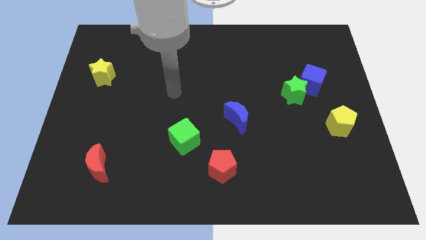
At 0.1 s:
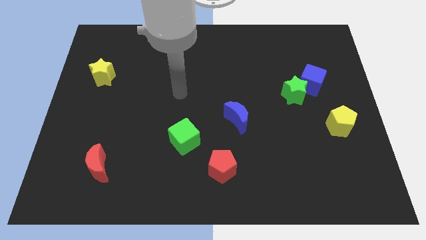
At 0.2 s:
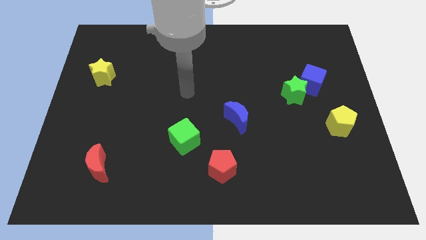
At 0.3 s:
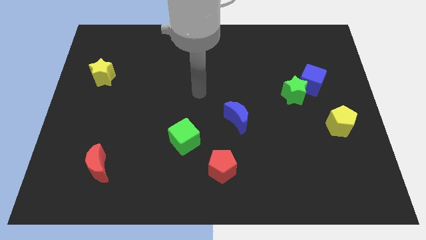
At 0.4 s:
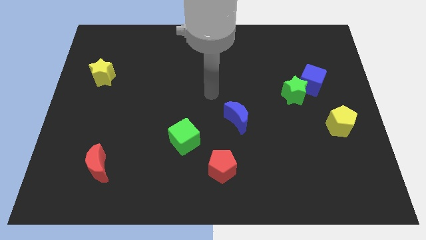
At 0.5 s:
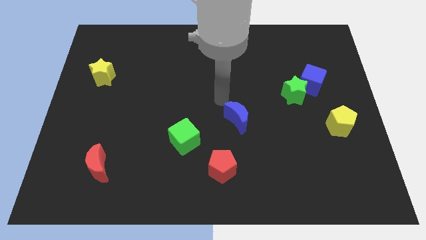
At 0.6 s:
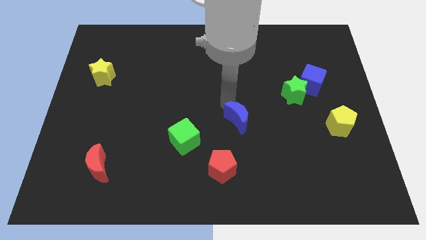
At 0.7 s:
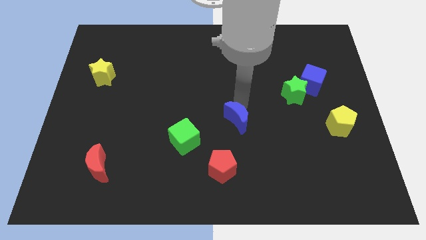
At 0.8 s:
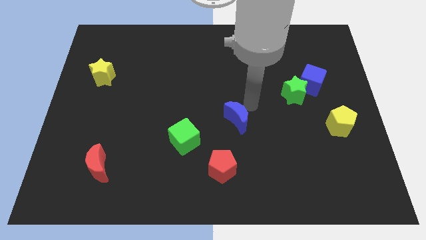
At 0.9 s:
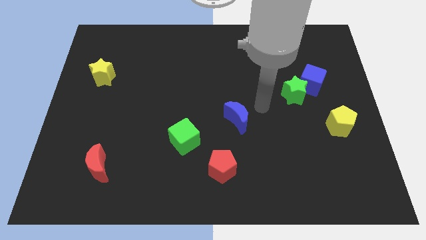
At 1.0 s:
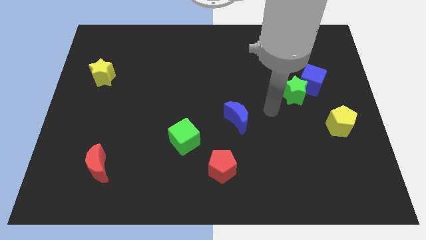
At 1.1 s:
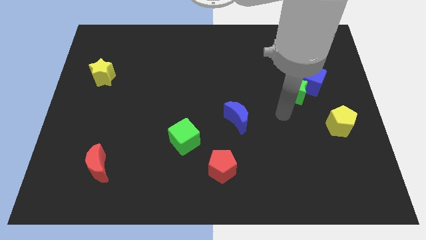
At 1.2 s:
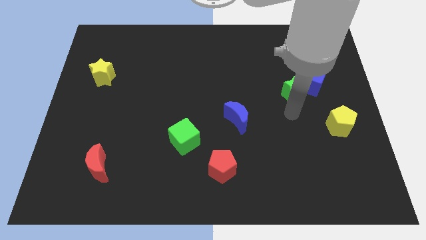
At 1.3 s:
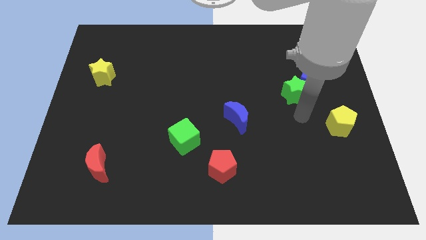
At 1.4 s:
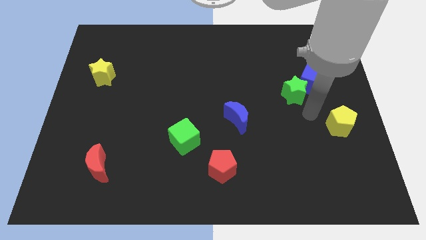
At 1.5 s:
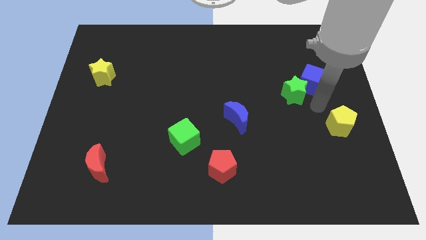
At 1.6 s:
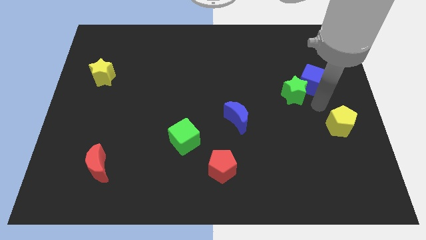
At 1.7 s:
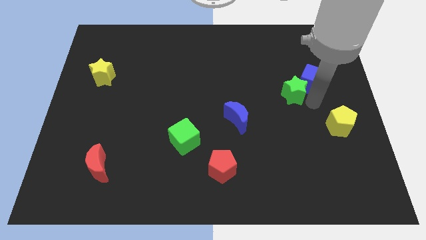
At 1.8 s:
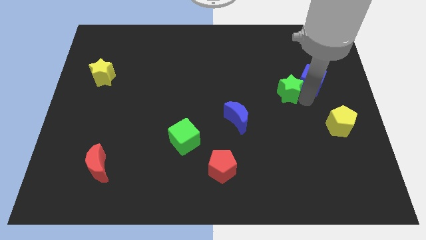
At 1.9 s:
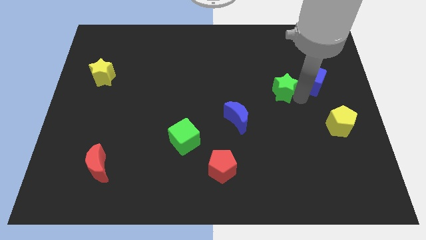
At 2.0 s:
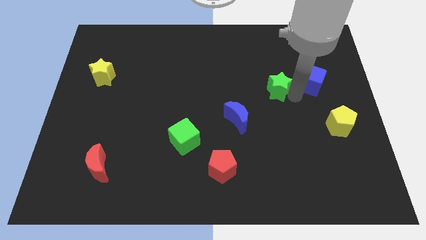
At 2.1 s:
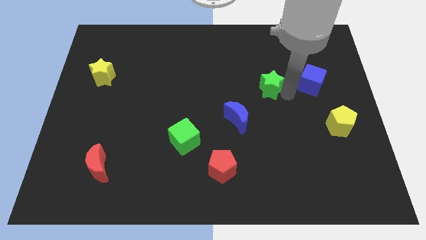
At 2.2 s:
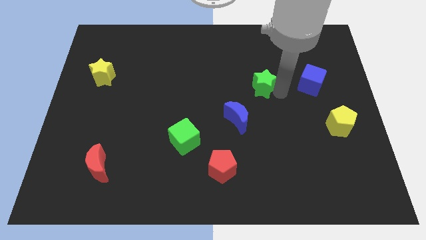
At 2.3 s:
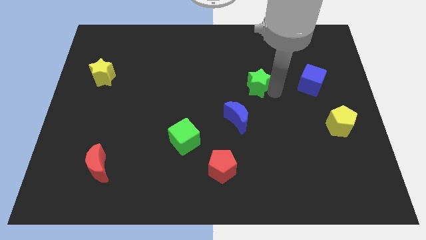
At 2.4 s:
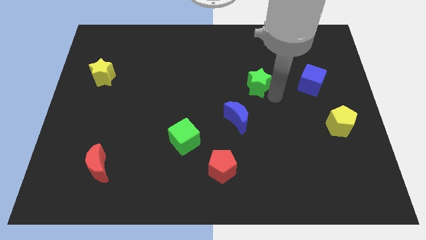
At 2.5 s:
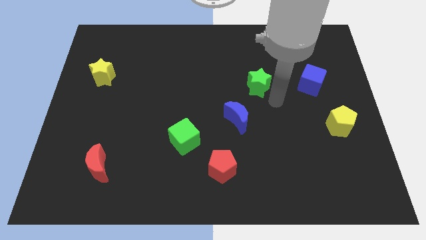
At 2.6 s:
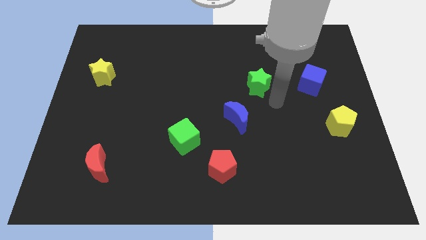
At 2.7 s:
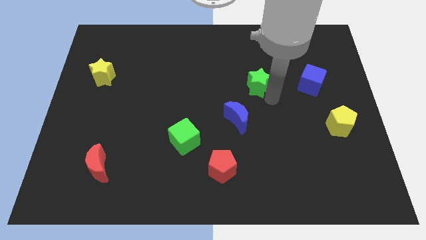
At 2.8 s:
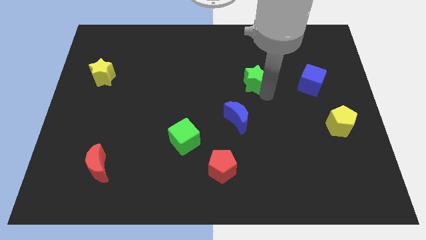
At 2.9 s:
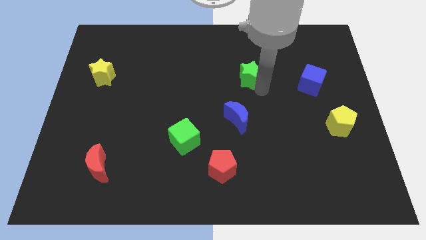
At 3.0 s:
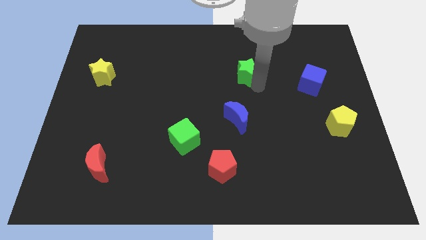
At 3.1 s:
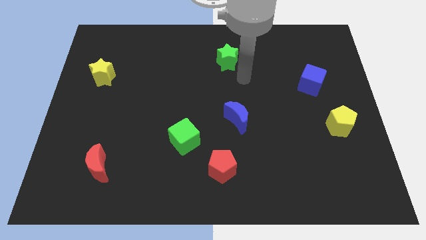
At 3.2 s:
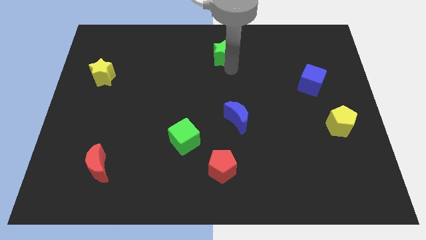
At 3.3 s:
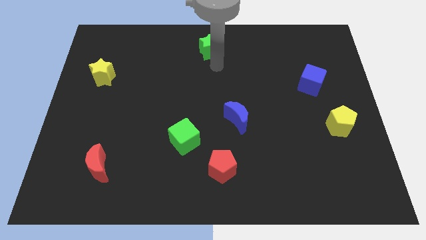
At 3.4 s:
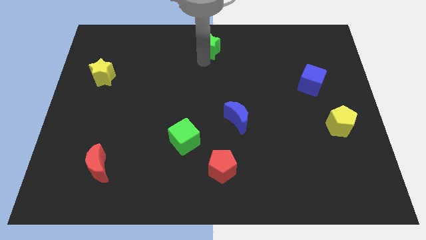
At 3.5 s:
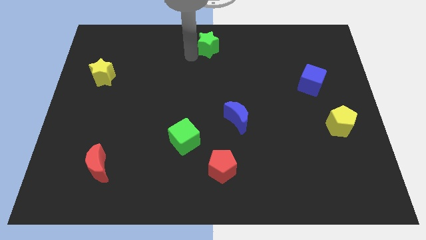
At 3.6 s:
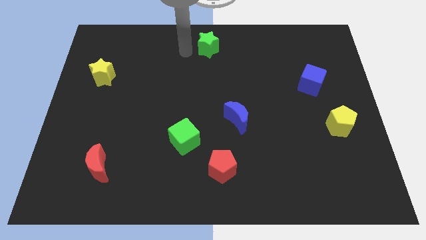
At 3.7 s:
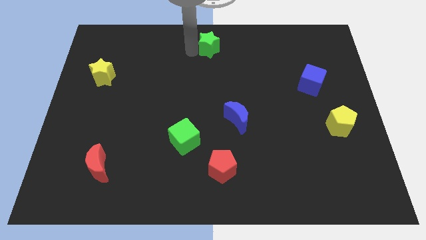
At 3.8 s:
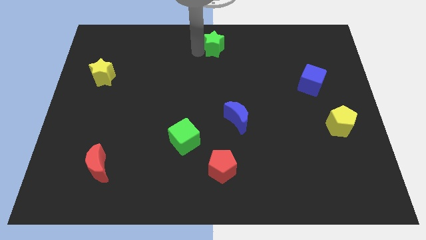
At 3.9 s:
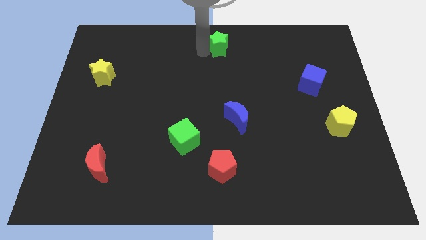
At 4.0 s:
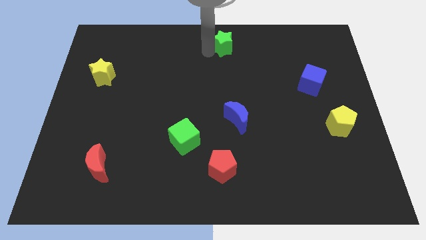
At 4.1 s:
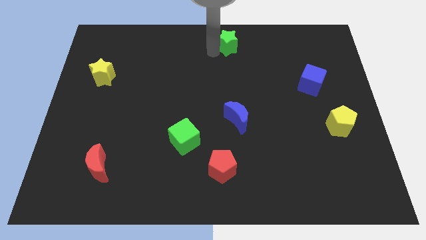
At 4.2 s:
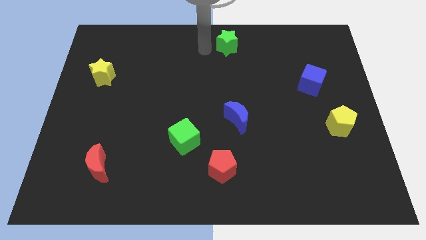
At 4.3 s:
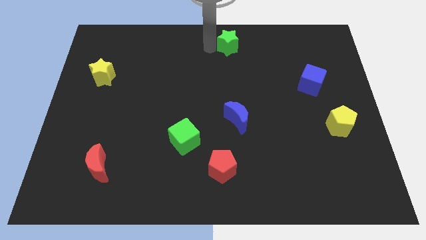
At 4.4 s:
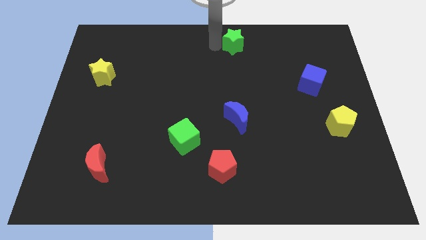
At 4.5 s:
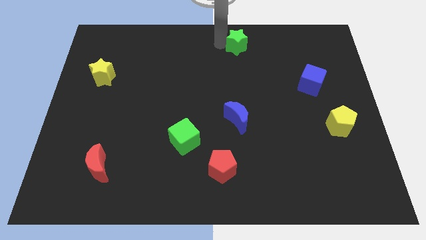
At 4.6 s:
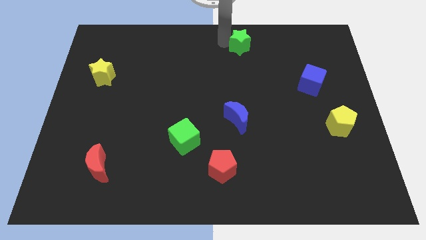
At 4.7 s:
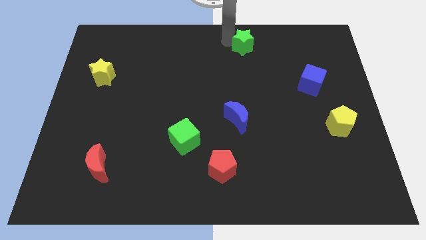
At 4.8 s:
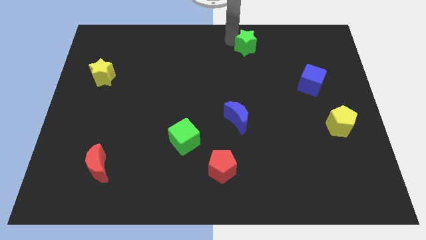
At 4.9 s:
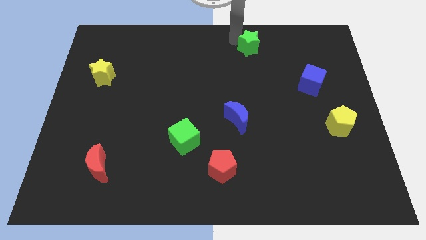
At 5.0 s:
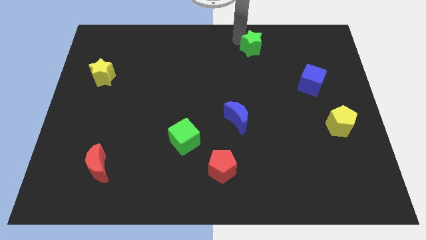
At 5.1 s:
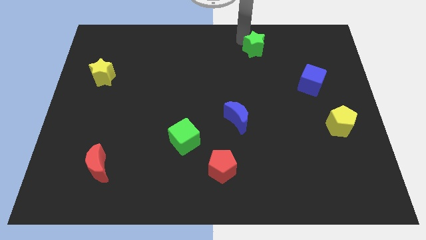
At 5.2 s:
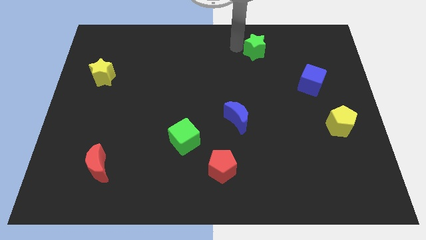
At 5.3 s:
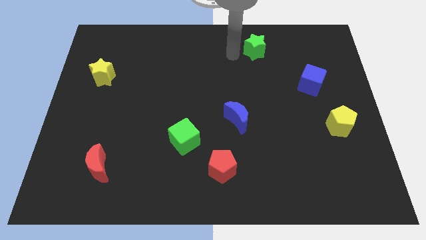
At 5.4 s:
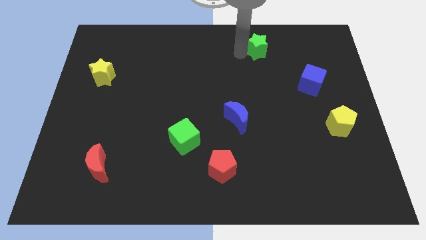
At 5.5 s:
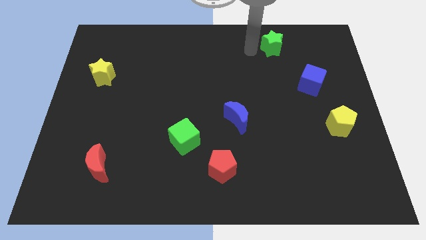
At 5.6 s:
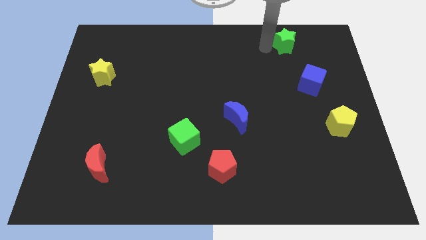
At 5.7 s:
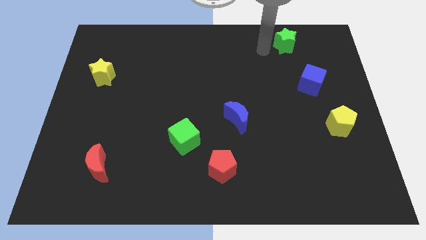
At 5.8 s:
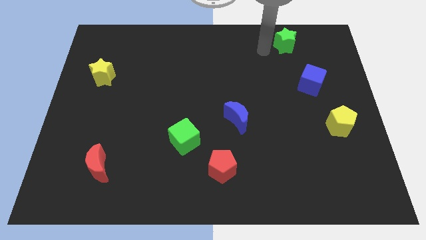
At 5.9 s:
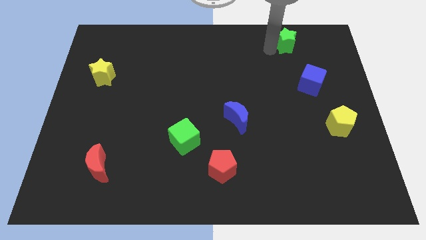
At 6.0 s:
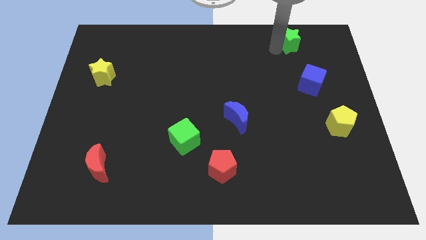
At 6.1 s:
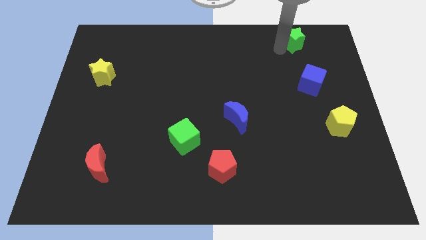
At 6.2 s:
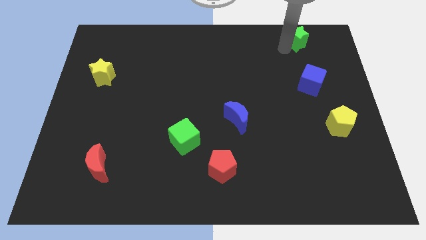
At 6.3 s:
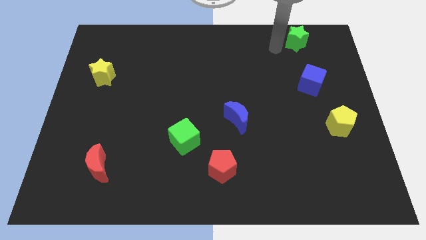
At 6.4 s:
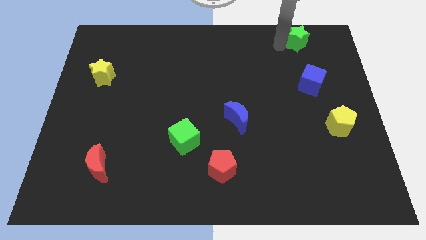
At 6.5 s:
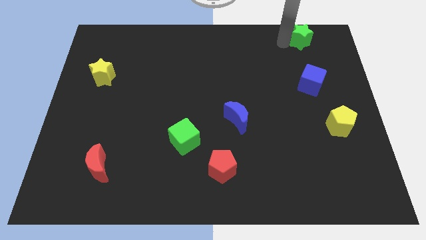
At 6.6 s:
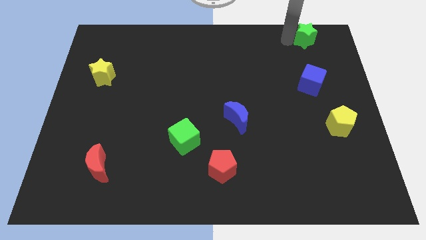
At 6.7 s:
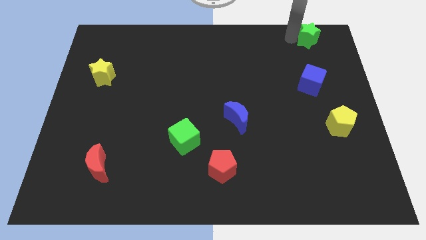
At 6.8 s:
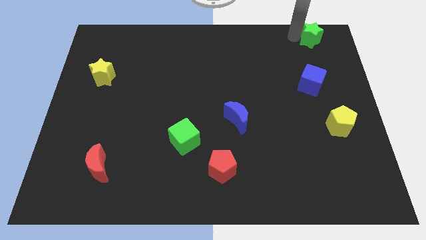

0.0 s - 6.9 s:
move the green star to the upper right corner
